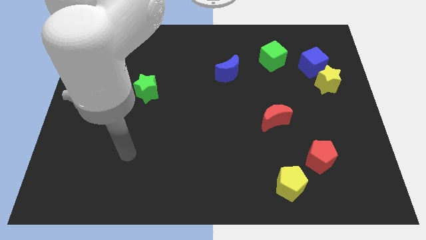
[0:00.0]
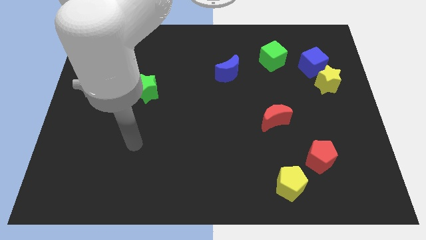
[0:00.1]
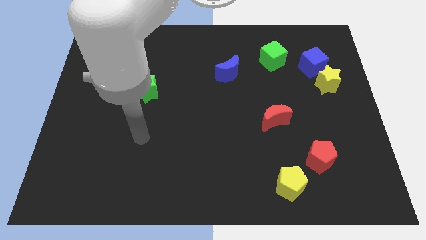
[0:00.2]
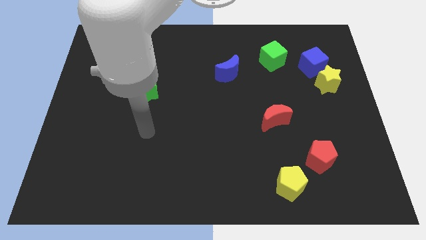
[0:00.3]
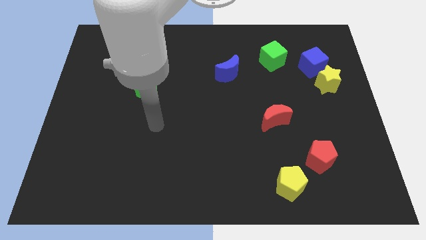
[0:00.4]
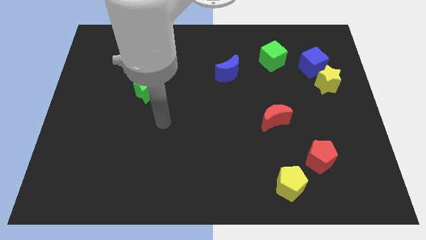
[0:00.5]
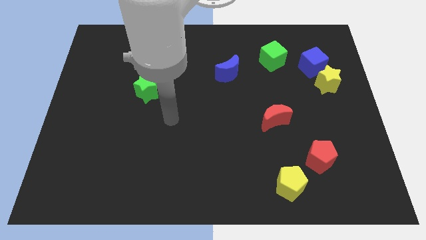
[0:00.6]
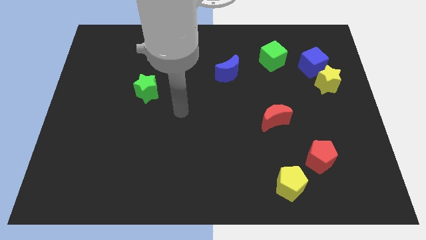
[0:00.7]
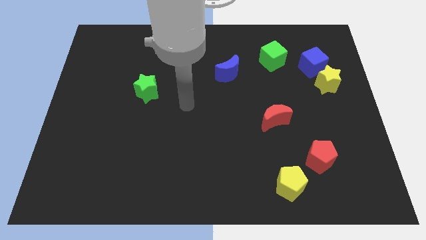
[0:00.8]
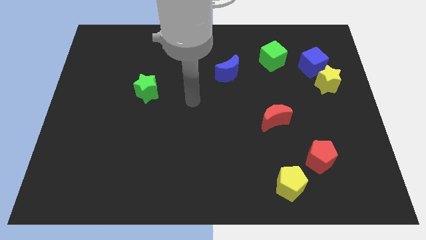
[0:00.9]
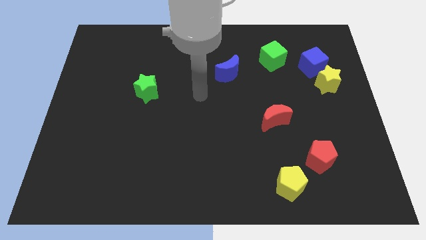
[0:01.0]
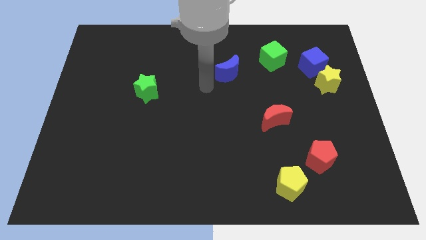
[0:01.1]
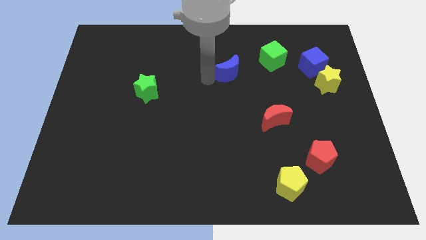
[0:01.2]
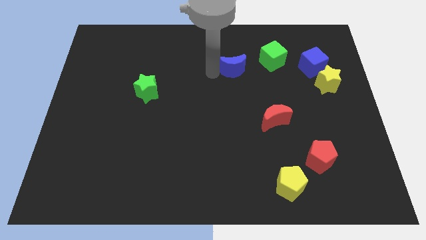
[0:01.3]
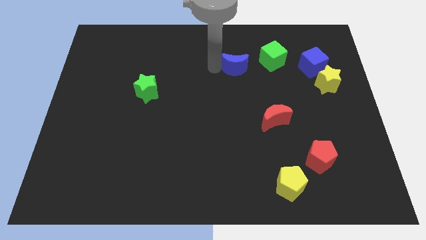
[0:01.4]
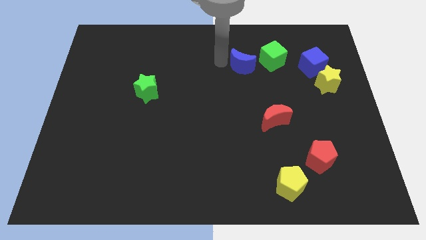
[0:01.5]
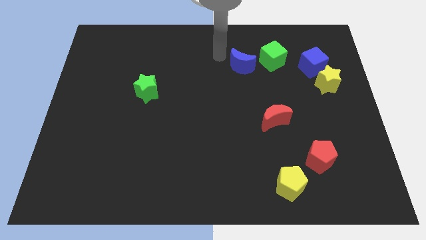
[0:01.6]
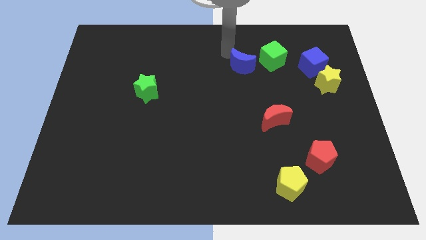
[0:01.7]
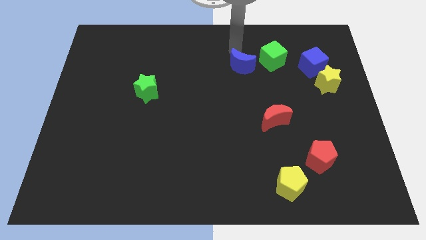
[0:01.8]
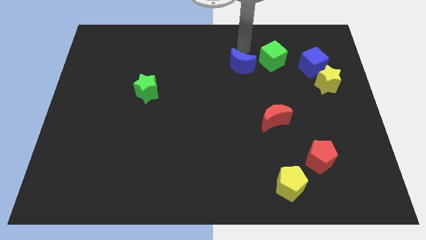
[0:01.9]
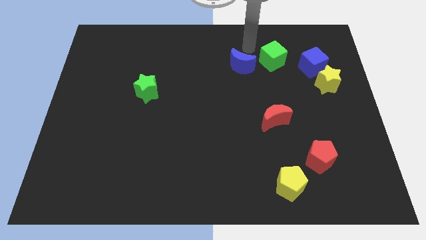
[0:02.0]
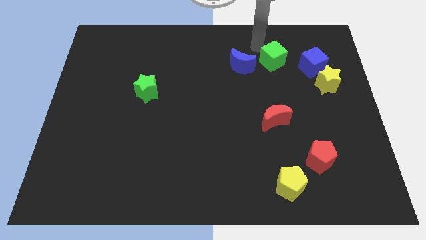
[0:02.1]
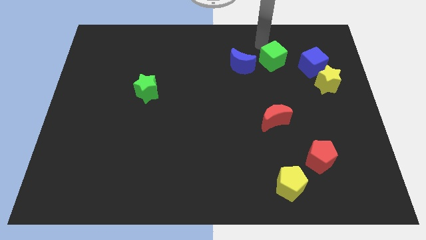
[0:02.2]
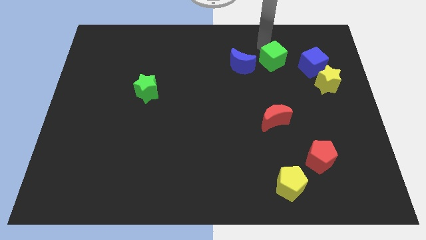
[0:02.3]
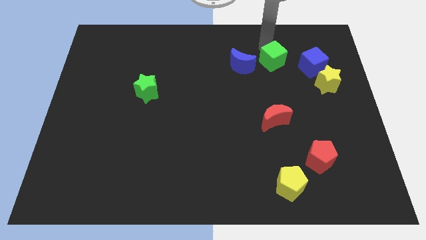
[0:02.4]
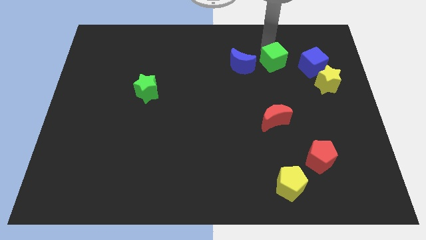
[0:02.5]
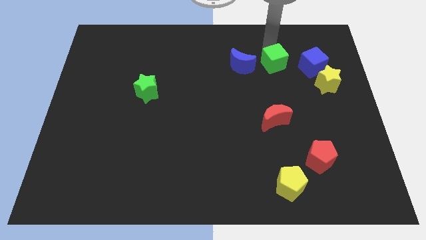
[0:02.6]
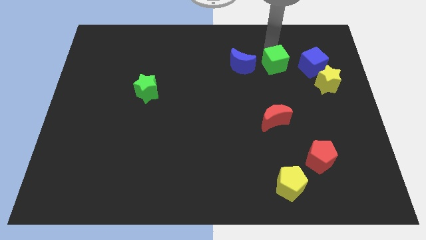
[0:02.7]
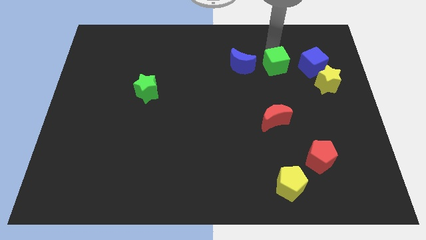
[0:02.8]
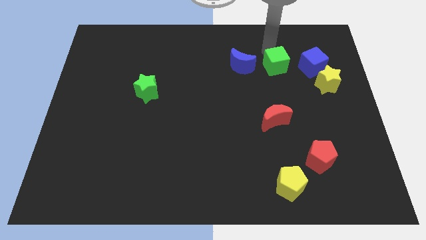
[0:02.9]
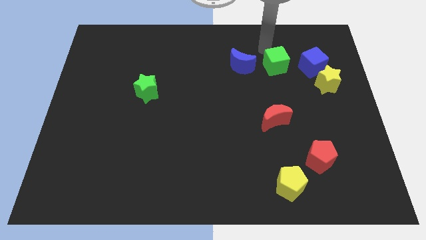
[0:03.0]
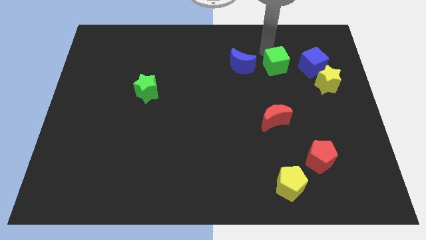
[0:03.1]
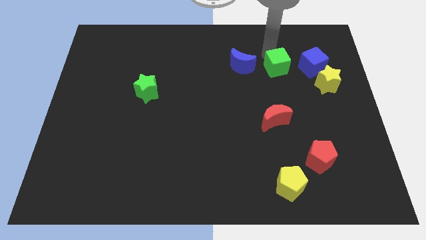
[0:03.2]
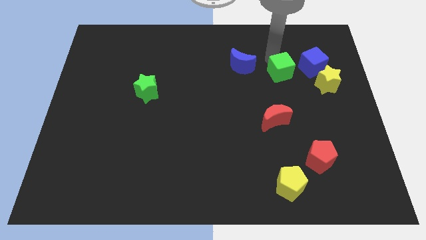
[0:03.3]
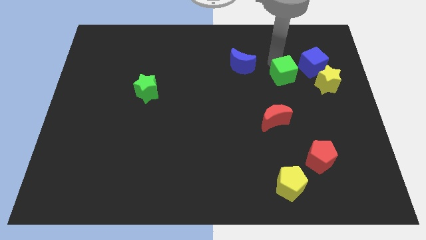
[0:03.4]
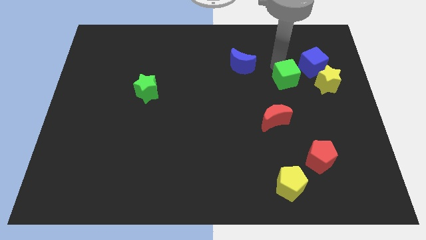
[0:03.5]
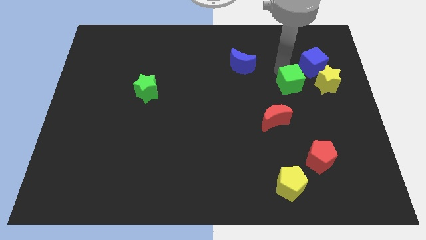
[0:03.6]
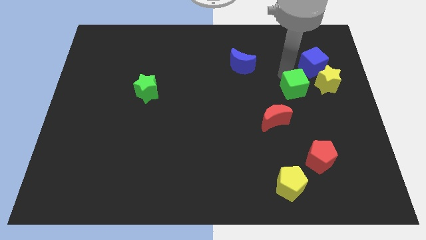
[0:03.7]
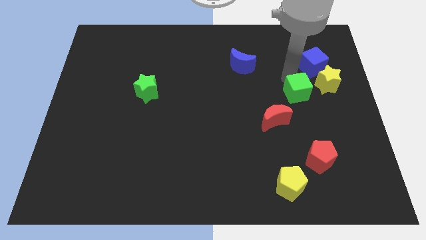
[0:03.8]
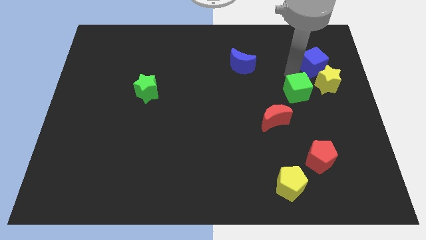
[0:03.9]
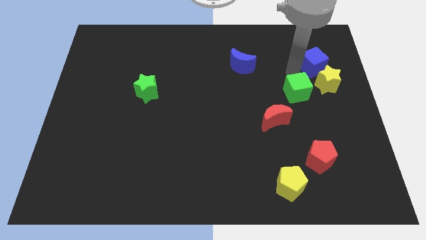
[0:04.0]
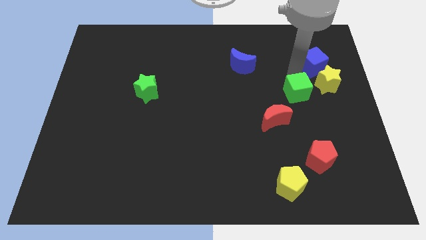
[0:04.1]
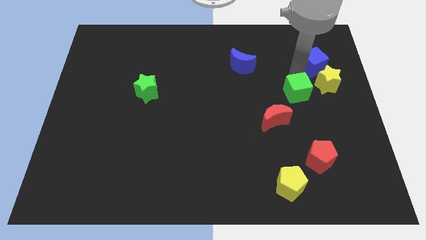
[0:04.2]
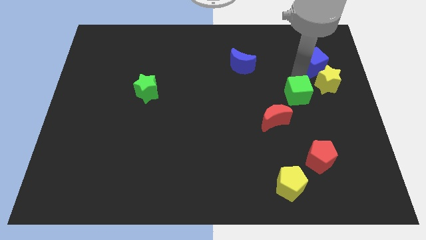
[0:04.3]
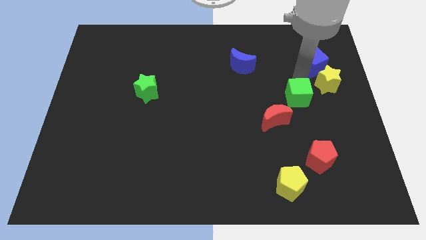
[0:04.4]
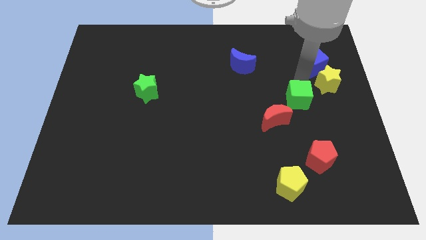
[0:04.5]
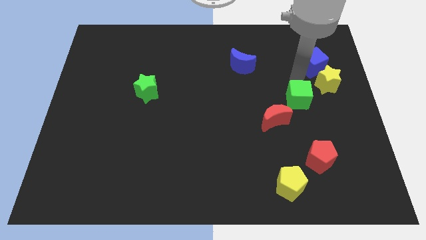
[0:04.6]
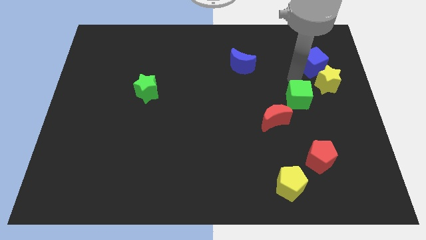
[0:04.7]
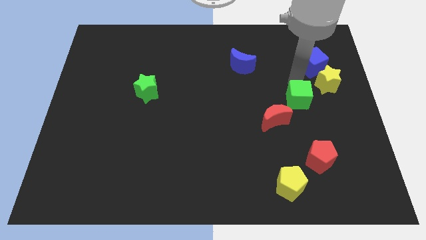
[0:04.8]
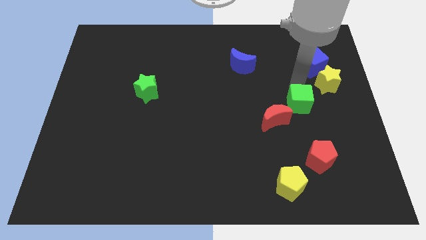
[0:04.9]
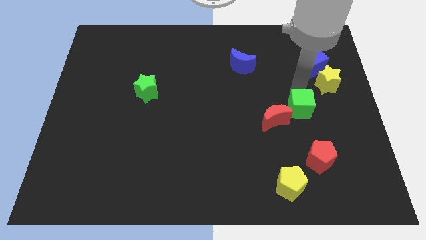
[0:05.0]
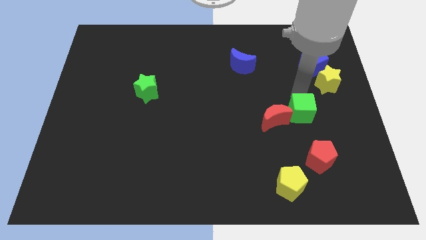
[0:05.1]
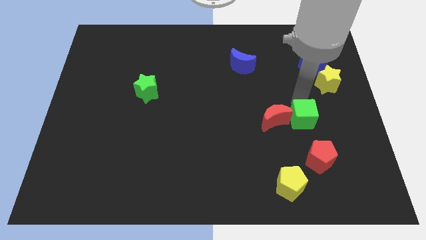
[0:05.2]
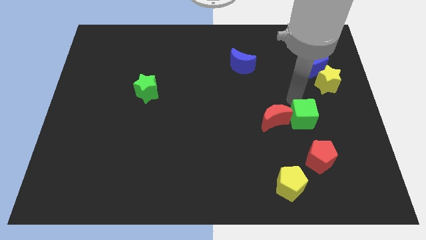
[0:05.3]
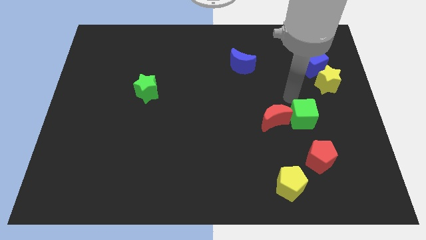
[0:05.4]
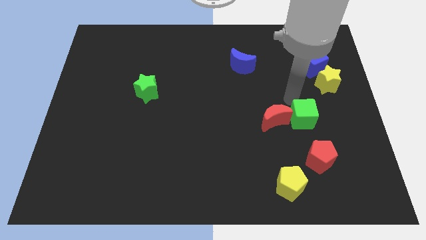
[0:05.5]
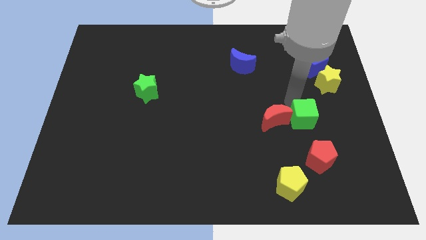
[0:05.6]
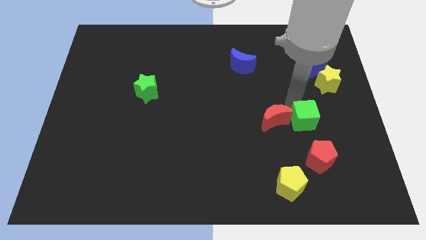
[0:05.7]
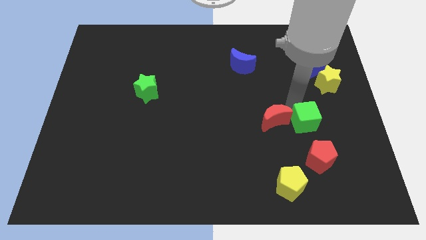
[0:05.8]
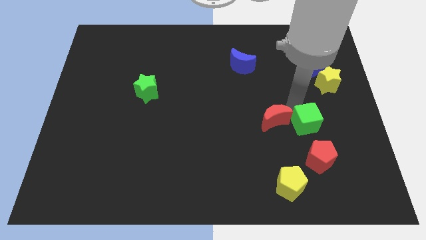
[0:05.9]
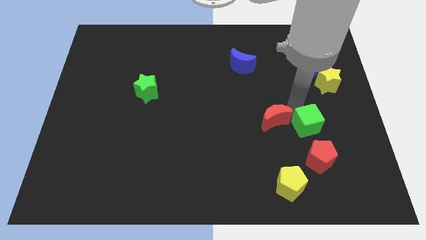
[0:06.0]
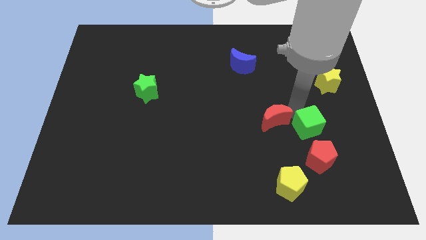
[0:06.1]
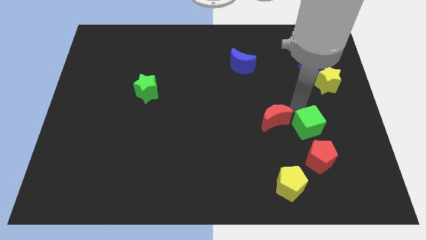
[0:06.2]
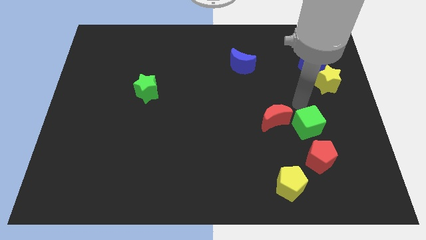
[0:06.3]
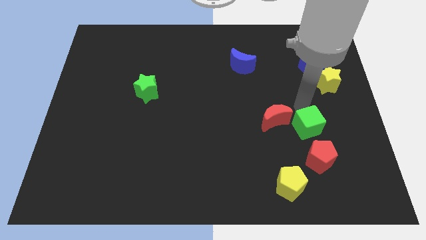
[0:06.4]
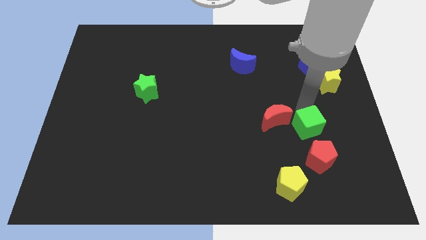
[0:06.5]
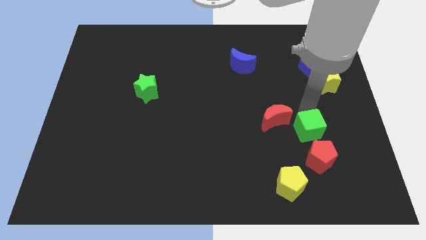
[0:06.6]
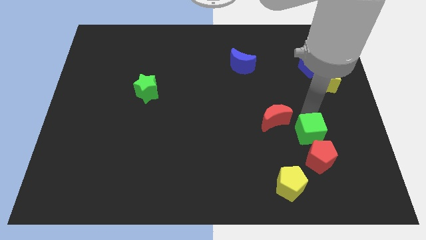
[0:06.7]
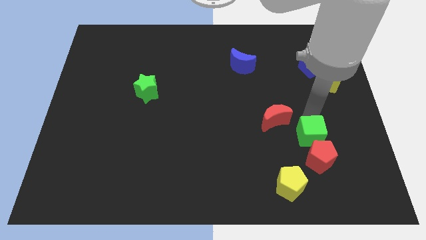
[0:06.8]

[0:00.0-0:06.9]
put the green cube next to the red pentagon
